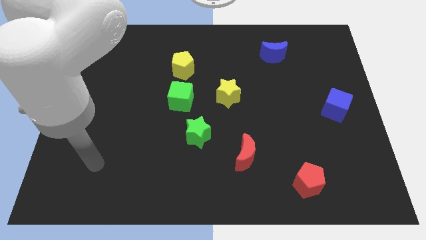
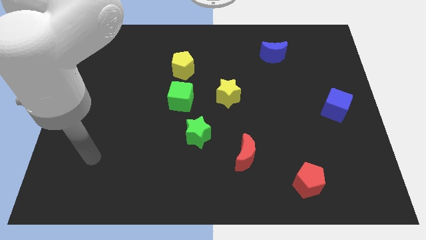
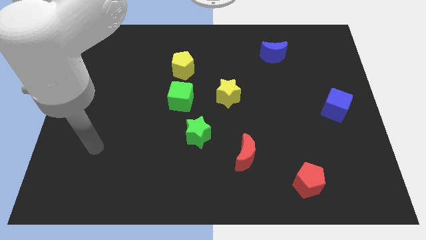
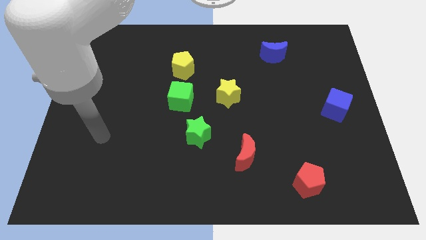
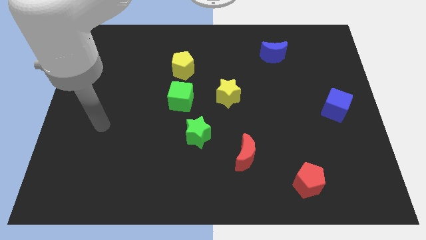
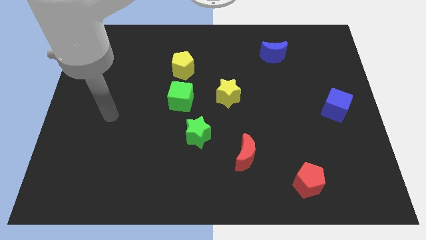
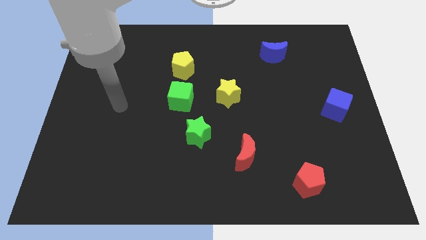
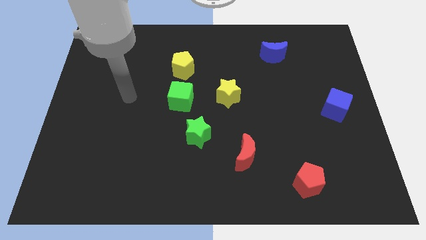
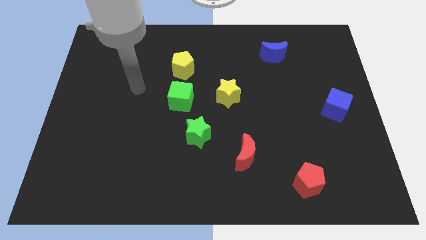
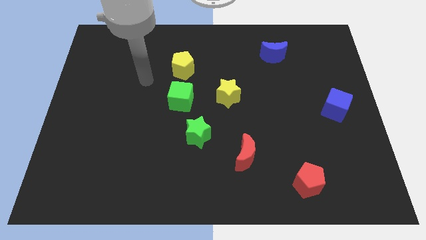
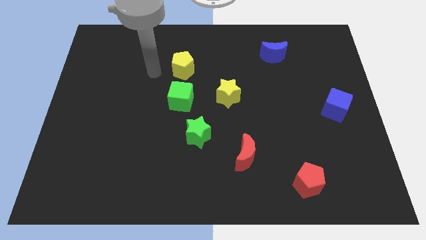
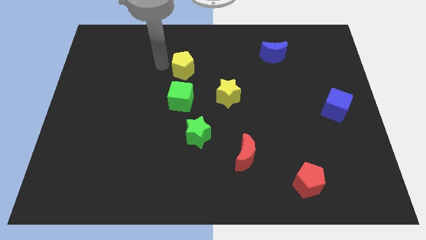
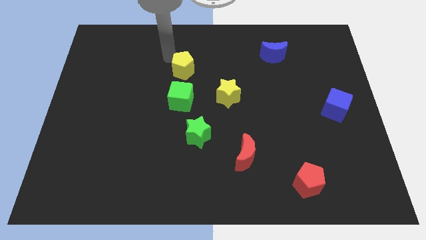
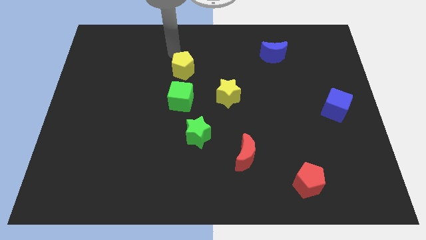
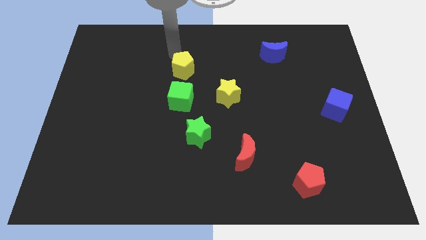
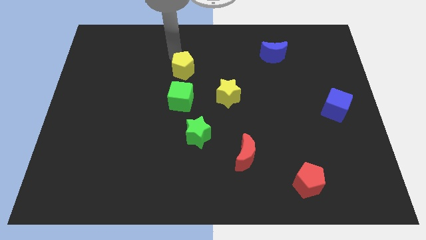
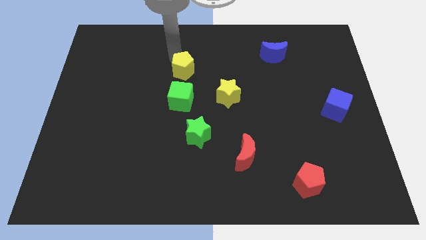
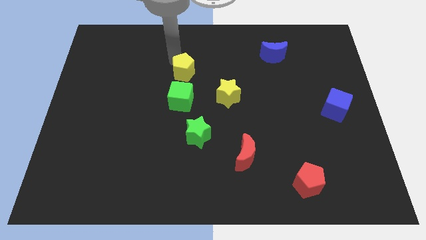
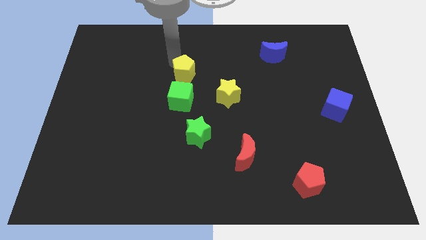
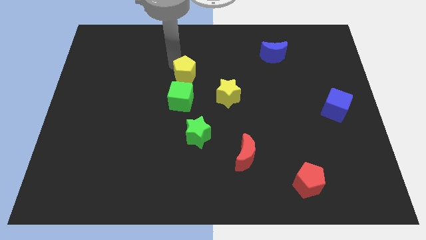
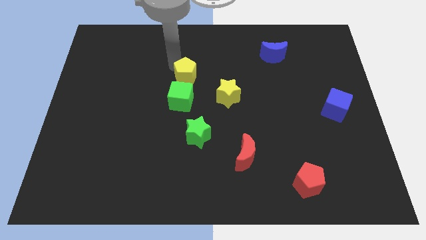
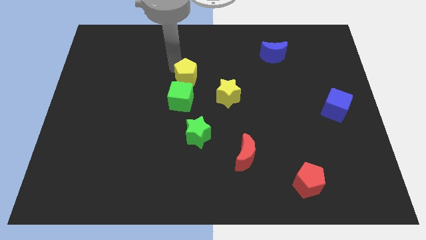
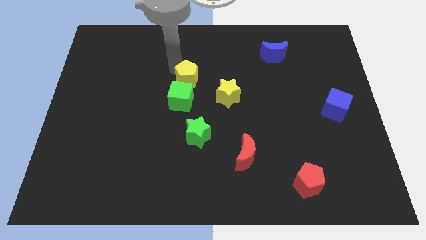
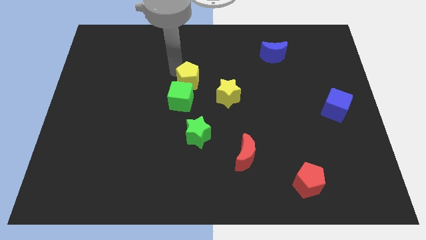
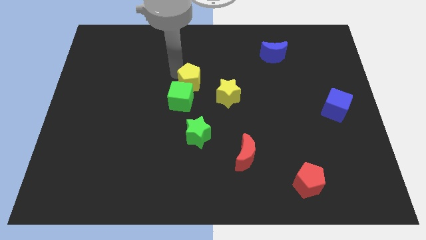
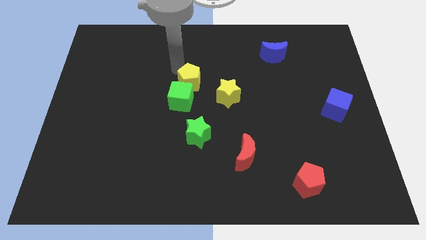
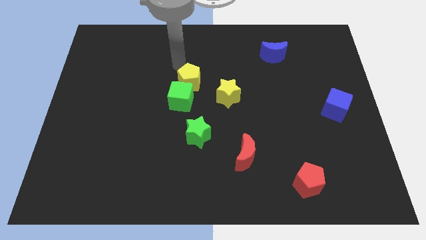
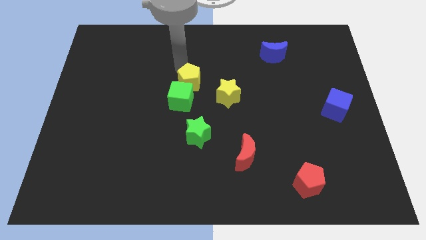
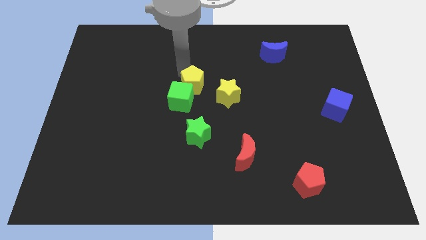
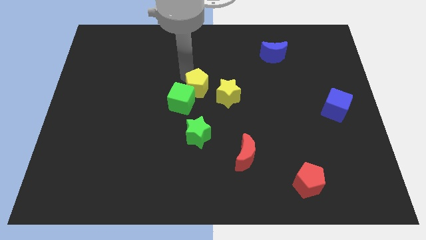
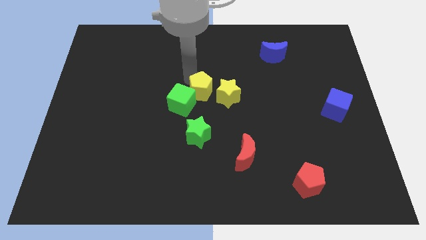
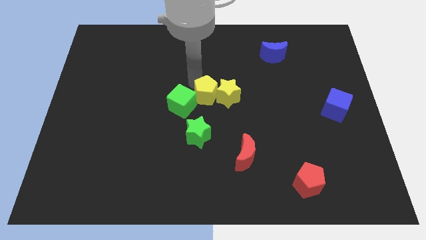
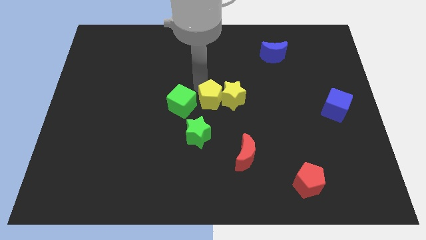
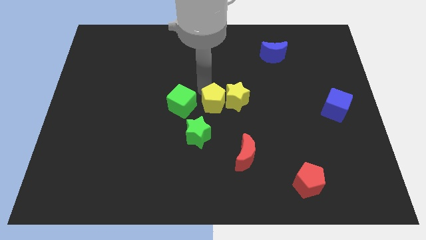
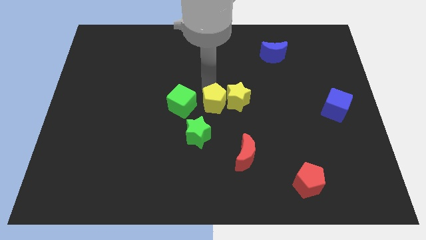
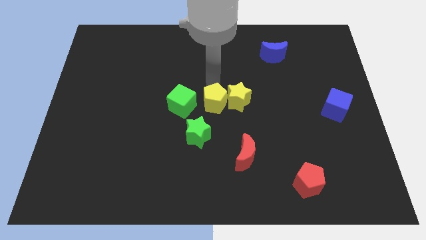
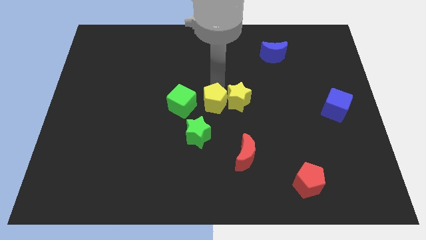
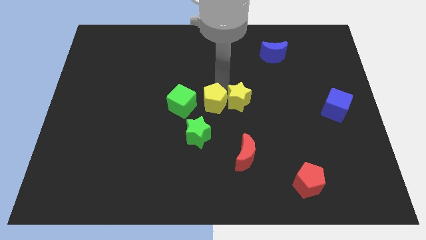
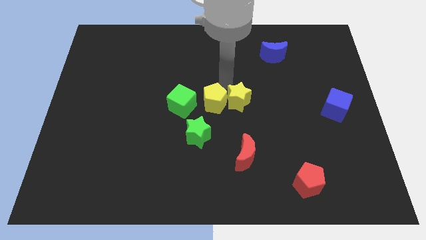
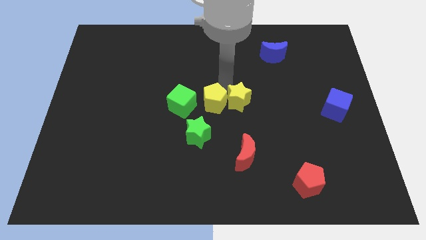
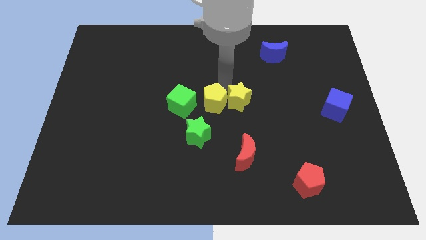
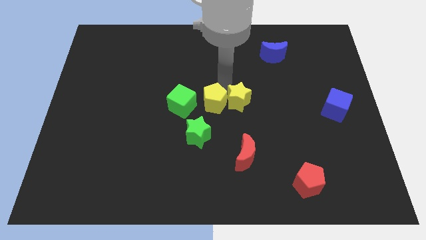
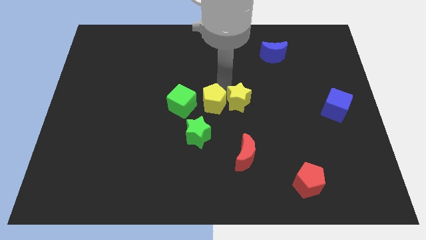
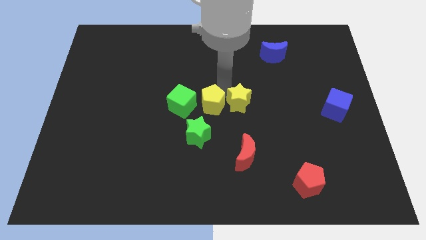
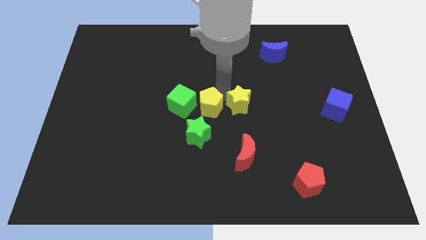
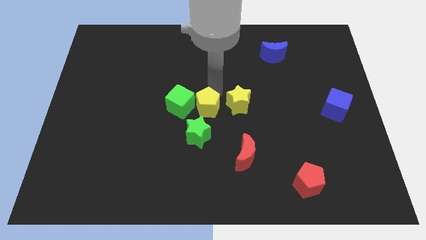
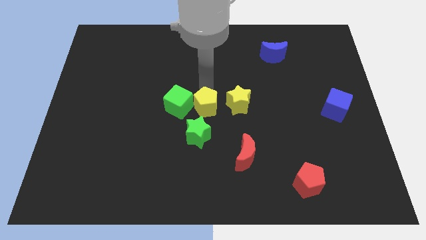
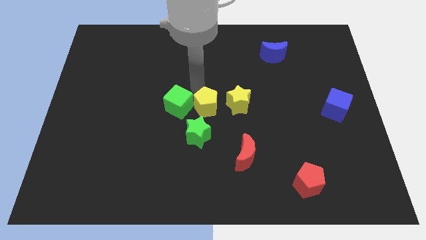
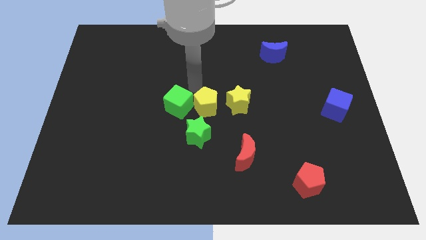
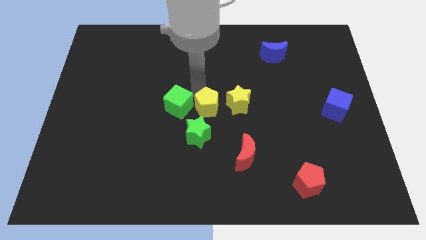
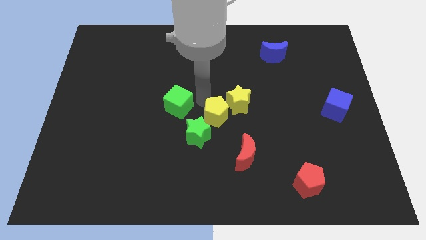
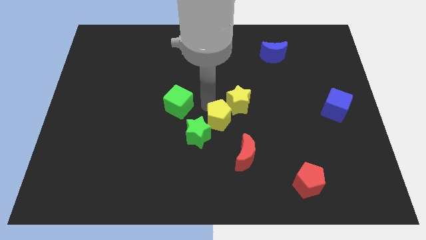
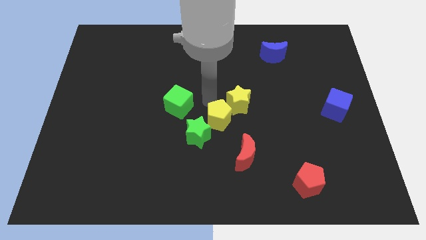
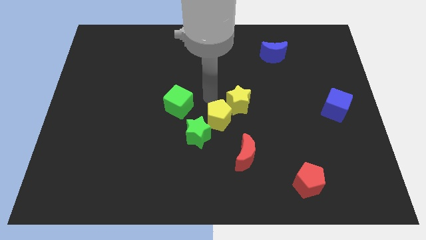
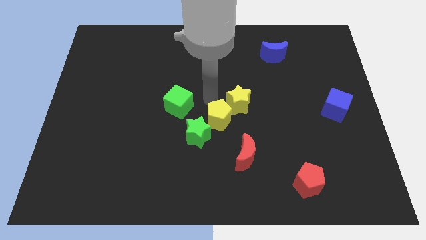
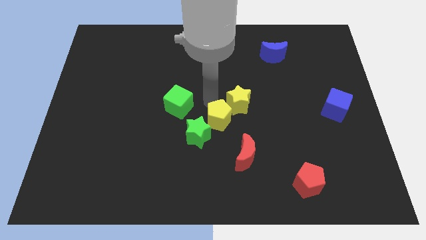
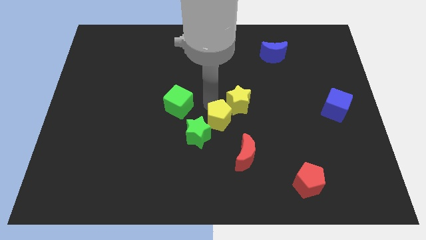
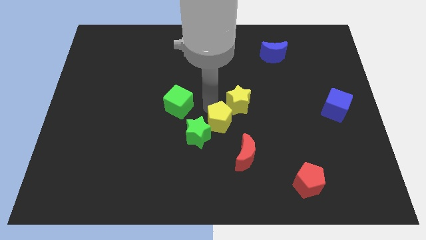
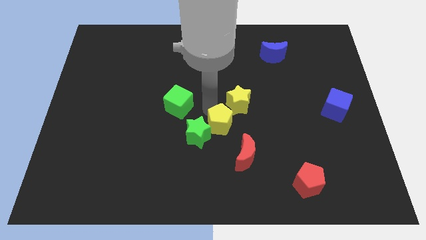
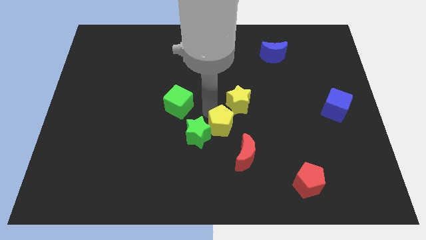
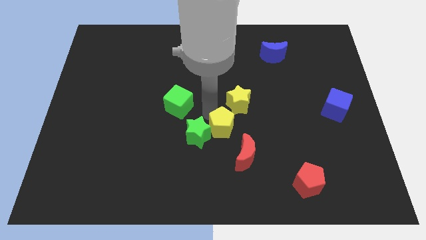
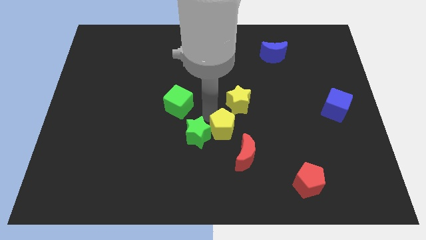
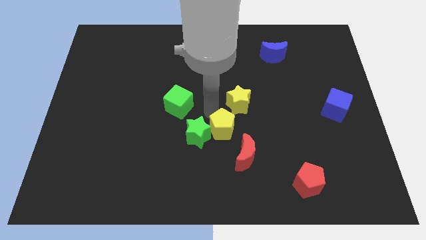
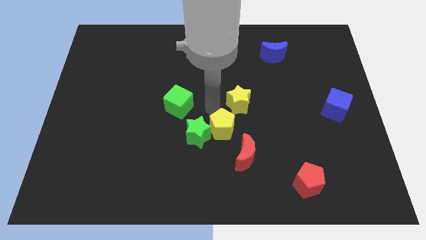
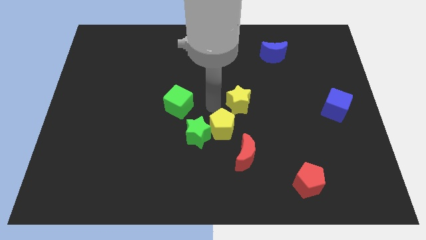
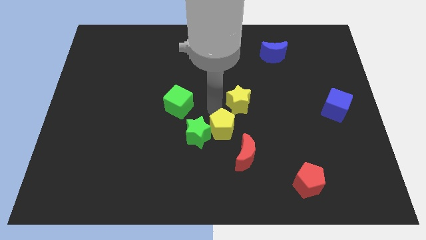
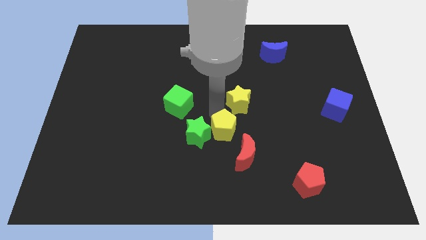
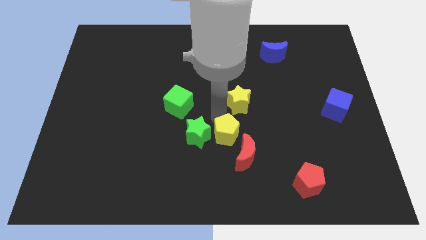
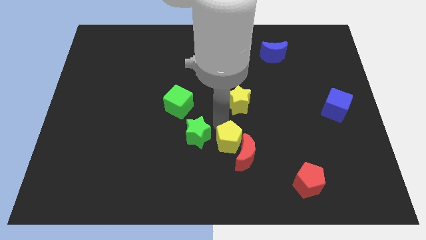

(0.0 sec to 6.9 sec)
put the yellow pentagon to the red moon
